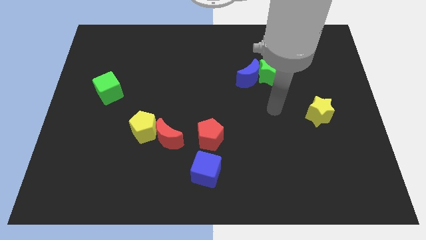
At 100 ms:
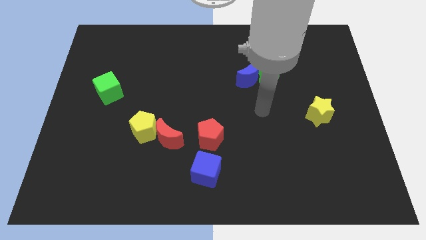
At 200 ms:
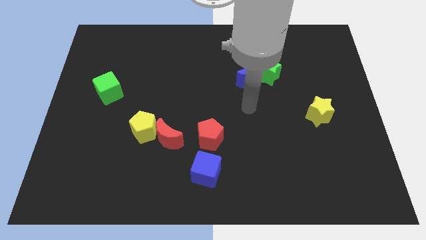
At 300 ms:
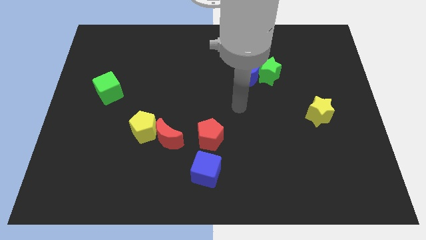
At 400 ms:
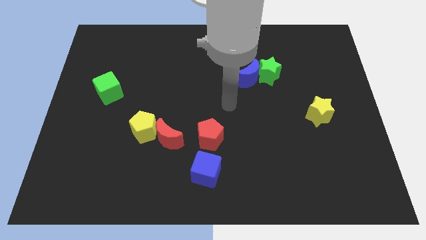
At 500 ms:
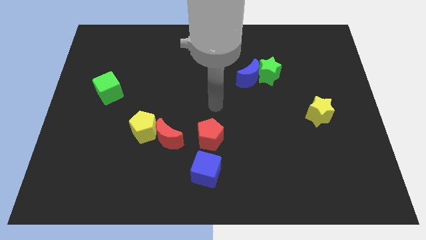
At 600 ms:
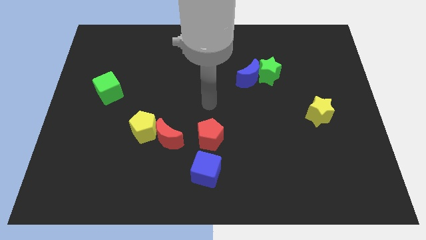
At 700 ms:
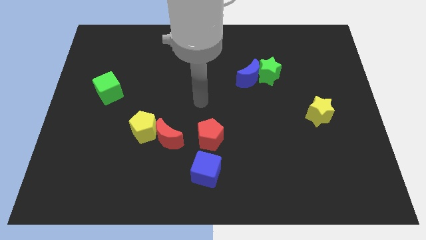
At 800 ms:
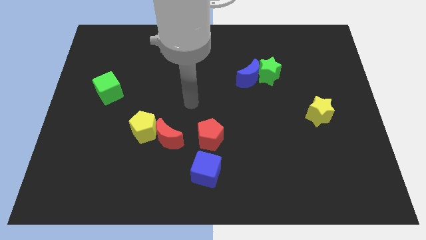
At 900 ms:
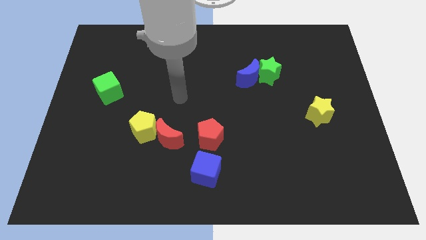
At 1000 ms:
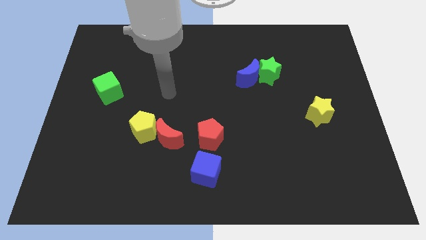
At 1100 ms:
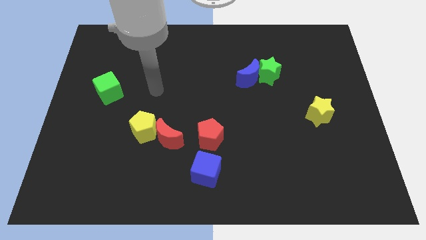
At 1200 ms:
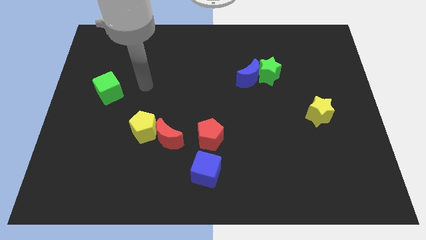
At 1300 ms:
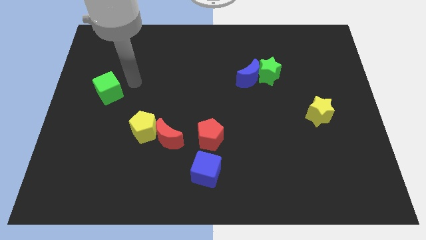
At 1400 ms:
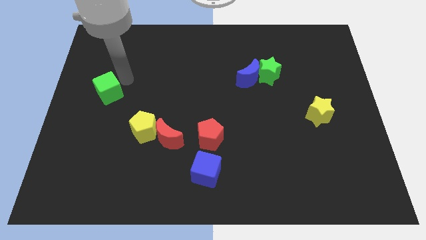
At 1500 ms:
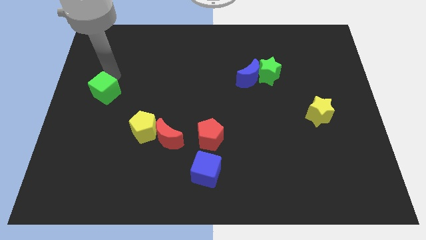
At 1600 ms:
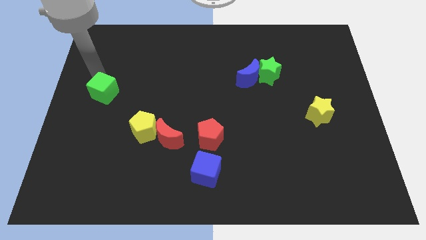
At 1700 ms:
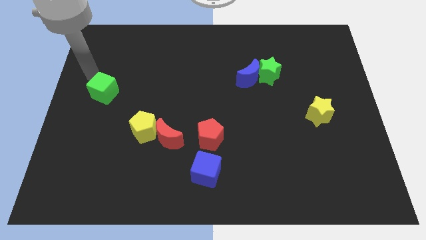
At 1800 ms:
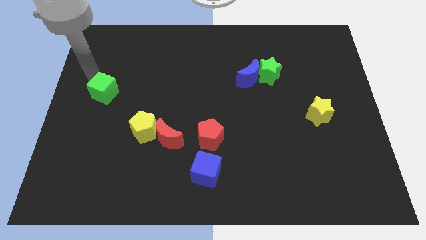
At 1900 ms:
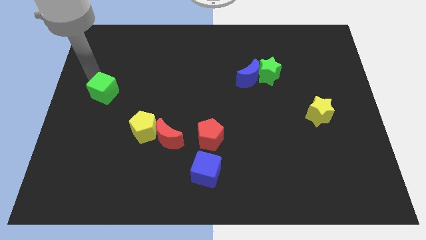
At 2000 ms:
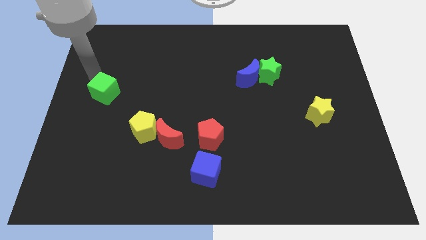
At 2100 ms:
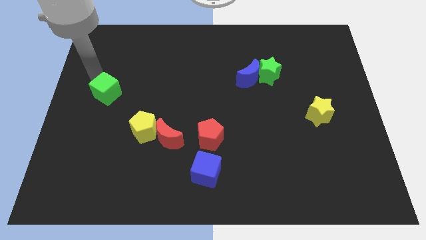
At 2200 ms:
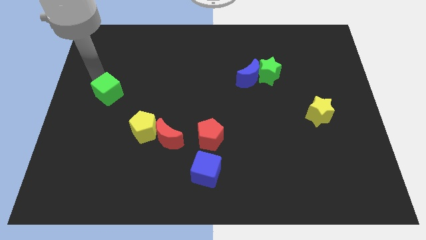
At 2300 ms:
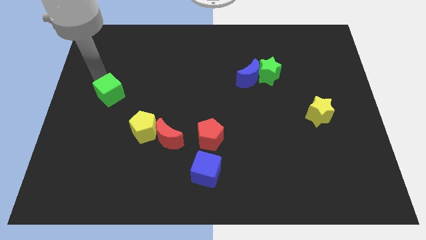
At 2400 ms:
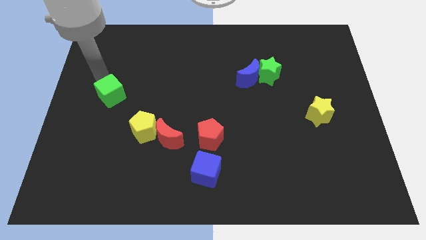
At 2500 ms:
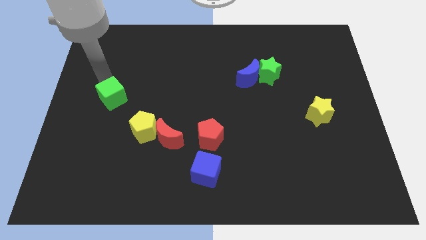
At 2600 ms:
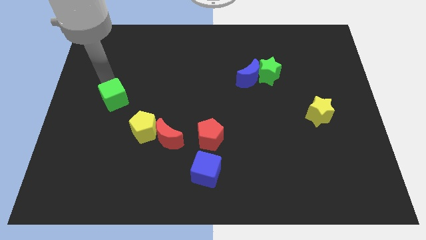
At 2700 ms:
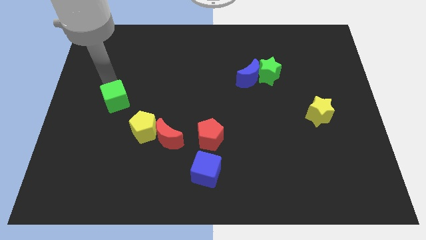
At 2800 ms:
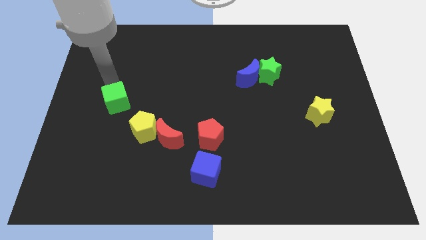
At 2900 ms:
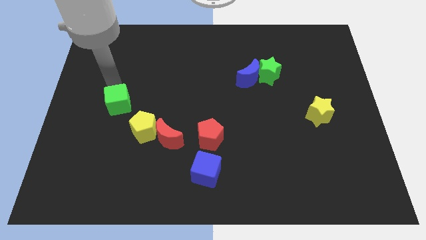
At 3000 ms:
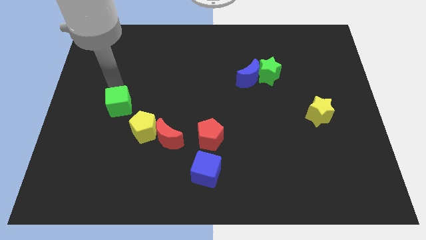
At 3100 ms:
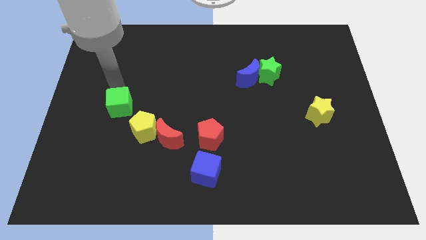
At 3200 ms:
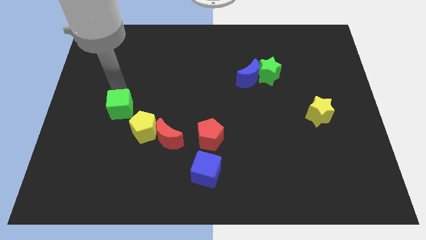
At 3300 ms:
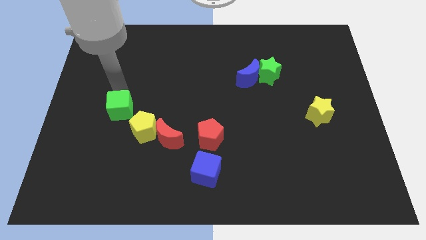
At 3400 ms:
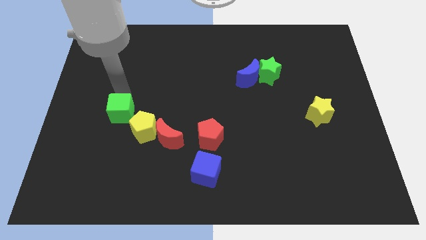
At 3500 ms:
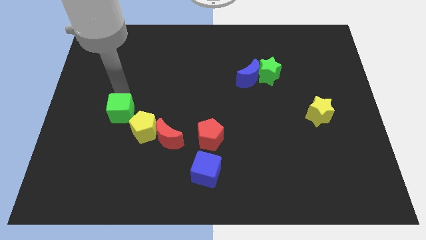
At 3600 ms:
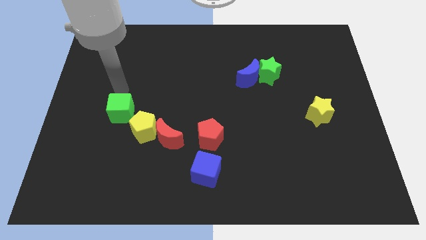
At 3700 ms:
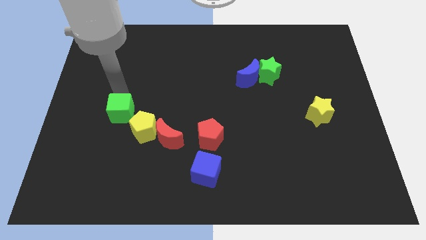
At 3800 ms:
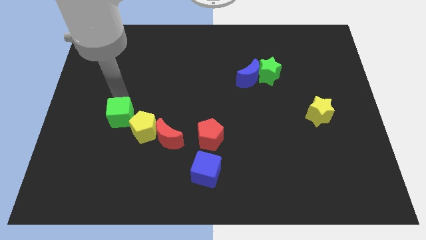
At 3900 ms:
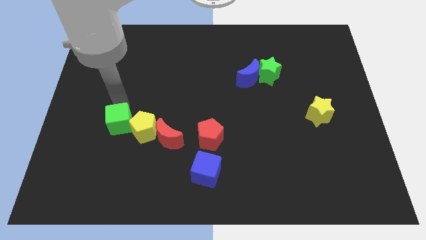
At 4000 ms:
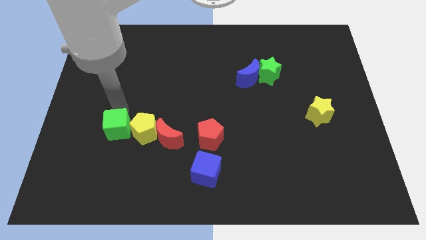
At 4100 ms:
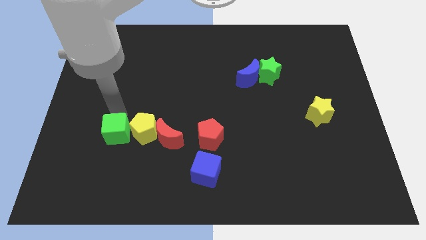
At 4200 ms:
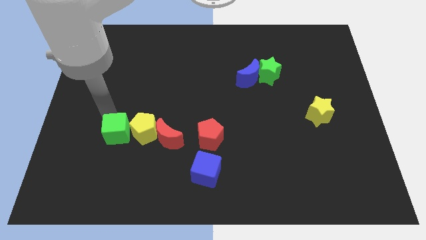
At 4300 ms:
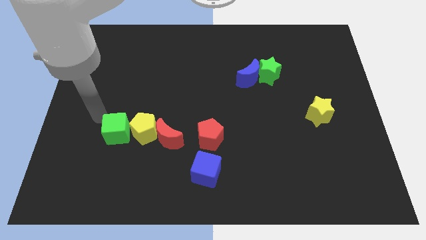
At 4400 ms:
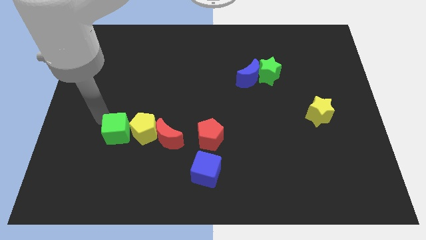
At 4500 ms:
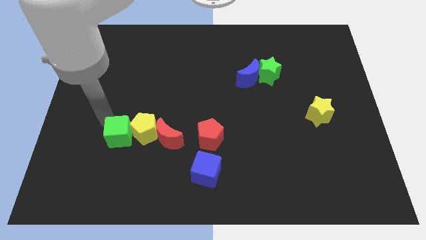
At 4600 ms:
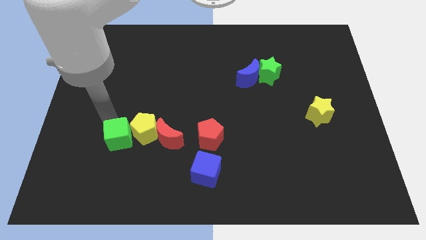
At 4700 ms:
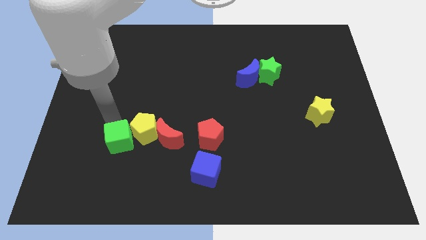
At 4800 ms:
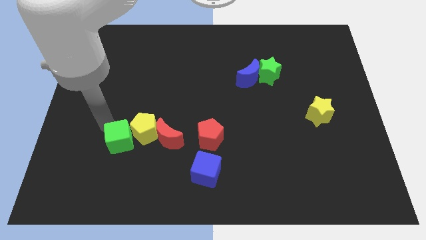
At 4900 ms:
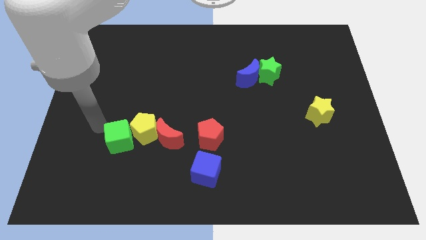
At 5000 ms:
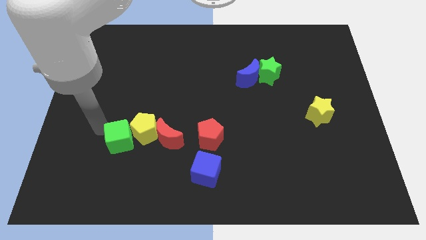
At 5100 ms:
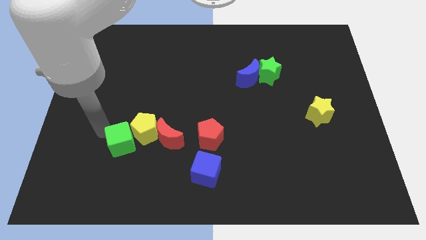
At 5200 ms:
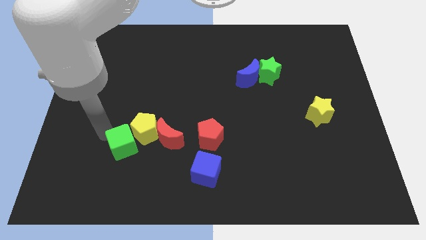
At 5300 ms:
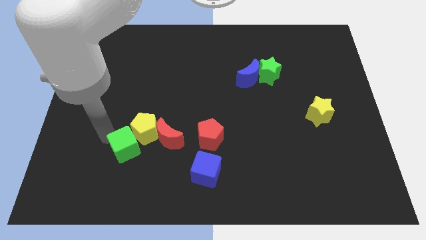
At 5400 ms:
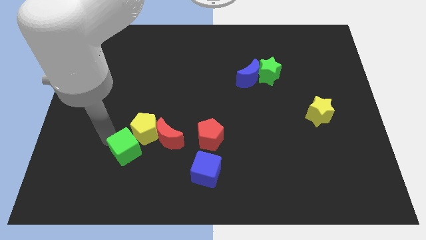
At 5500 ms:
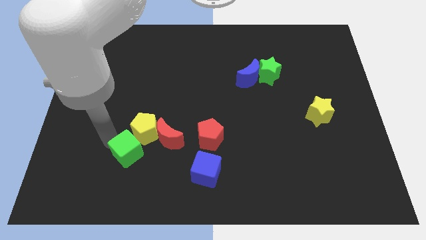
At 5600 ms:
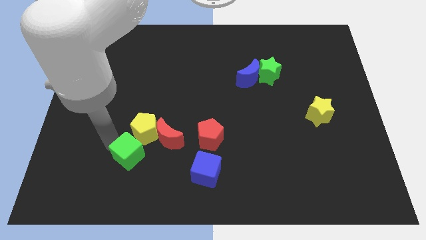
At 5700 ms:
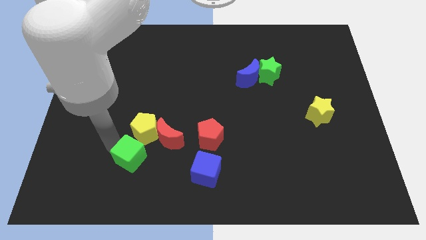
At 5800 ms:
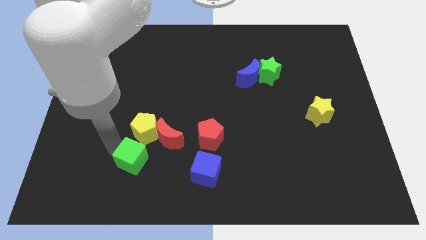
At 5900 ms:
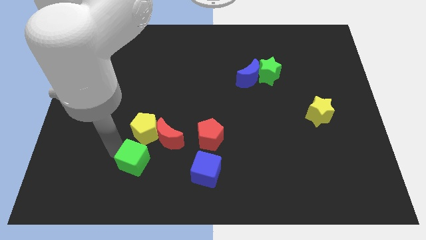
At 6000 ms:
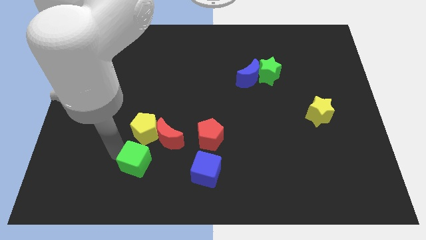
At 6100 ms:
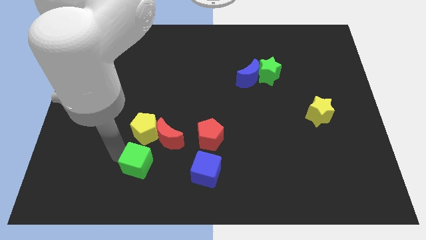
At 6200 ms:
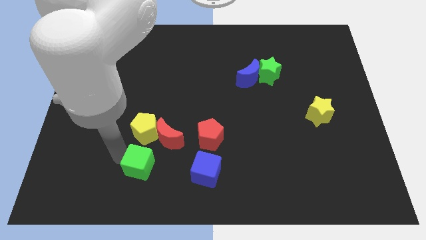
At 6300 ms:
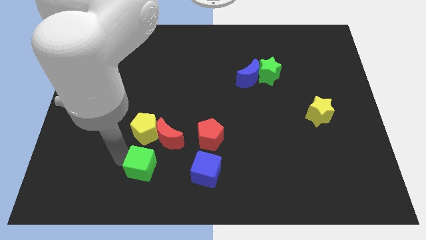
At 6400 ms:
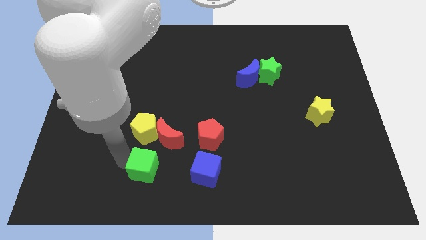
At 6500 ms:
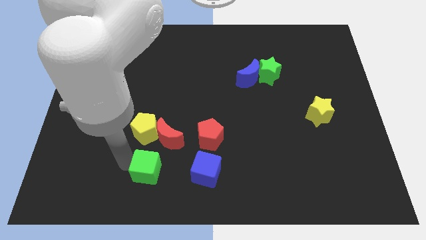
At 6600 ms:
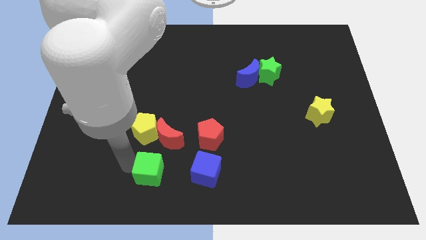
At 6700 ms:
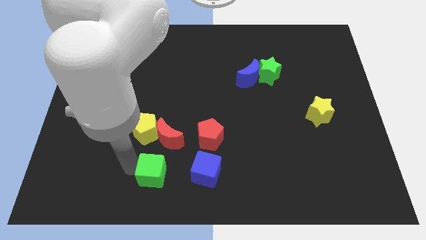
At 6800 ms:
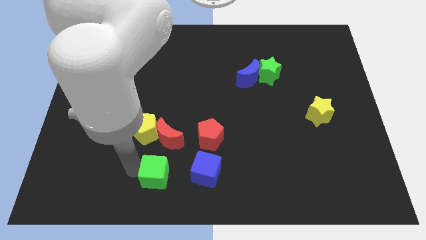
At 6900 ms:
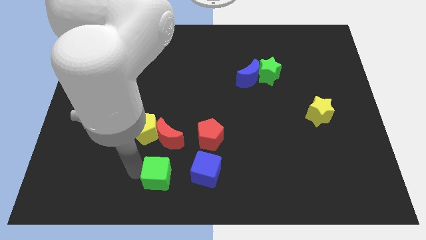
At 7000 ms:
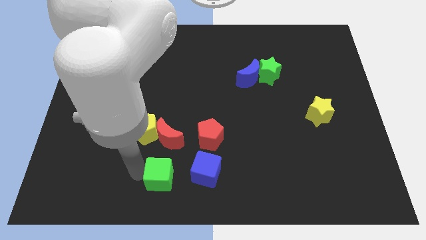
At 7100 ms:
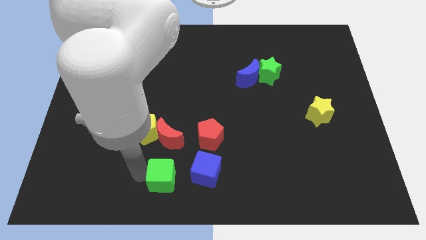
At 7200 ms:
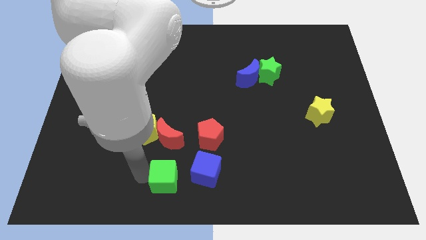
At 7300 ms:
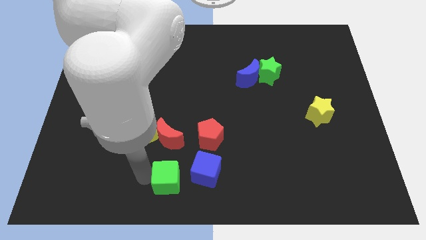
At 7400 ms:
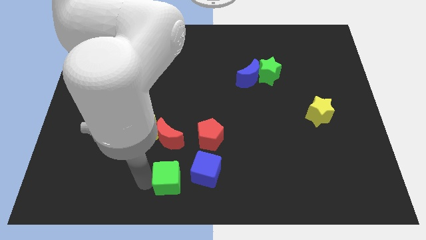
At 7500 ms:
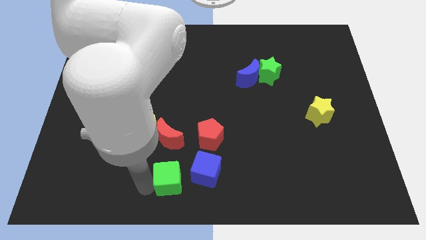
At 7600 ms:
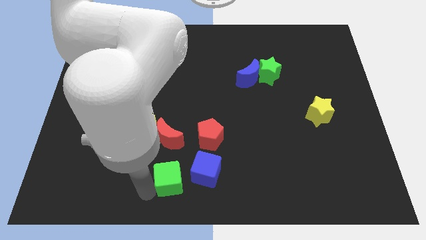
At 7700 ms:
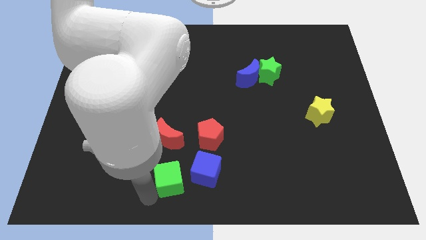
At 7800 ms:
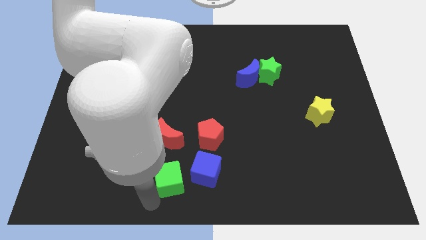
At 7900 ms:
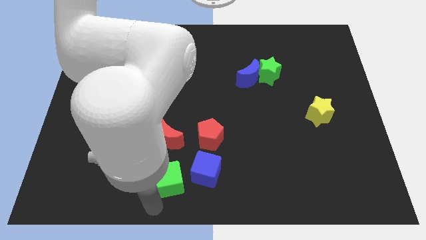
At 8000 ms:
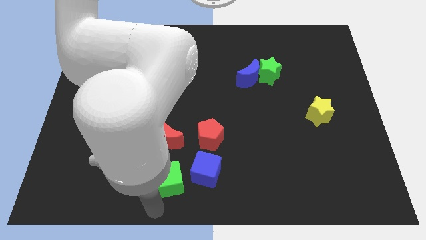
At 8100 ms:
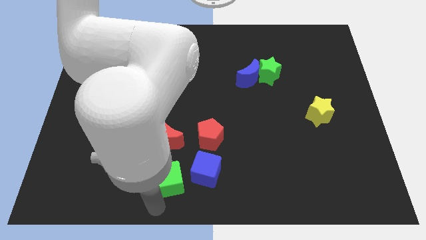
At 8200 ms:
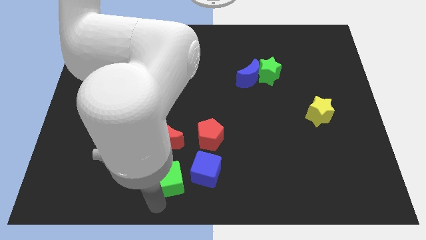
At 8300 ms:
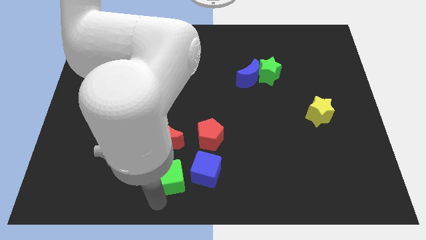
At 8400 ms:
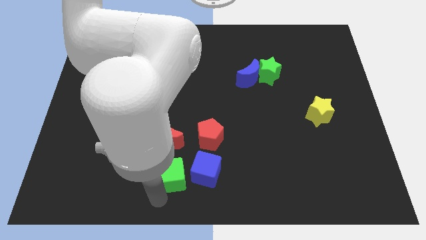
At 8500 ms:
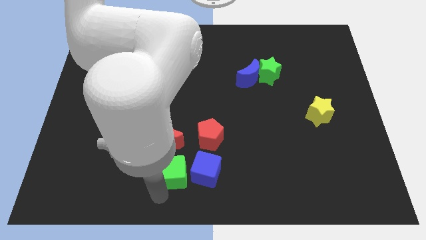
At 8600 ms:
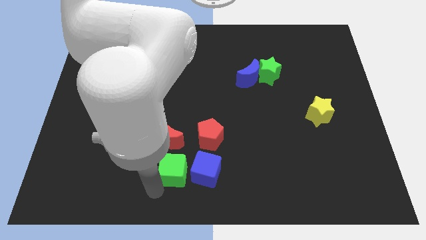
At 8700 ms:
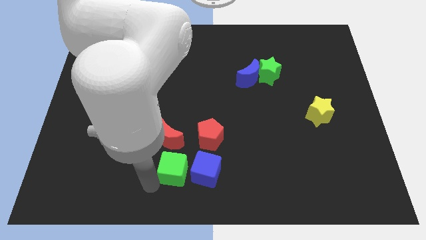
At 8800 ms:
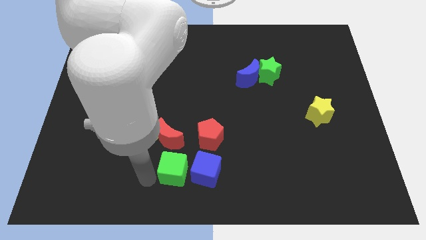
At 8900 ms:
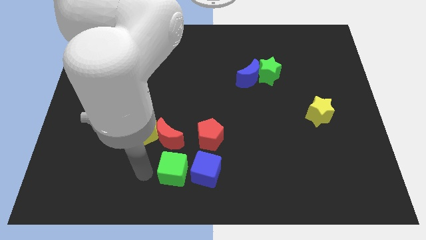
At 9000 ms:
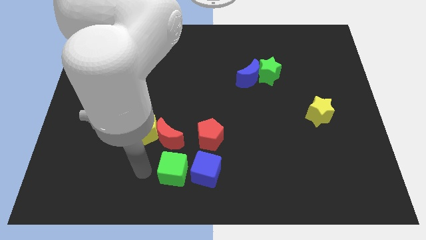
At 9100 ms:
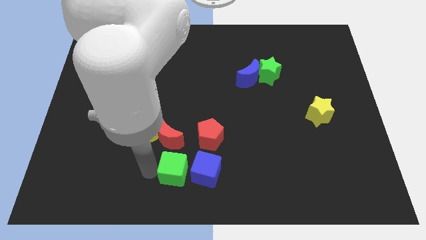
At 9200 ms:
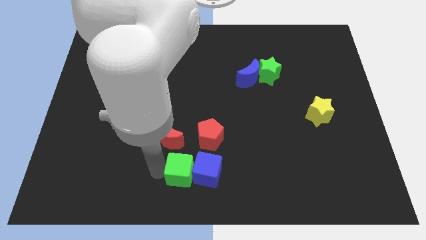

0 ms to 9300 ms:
put the green cube next to the blue cube
